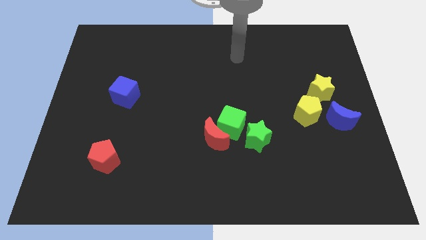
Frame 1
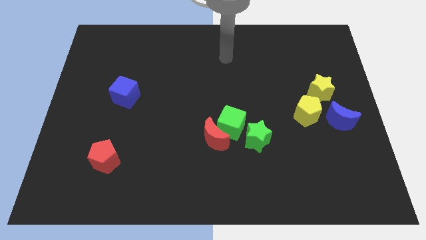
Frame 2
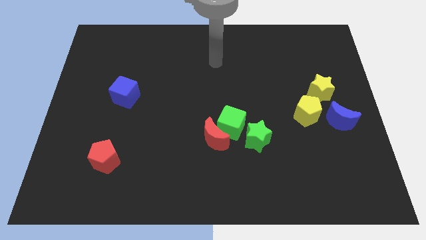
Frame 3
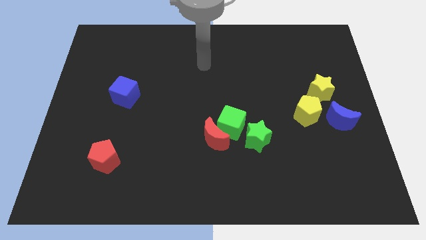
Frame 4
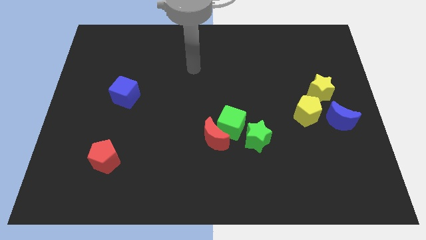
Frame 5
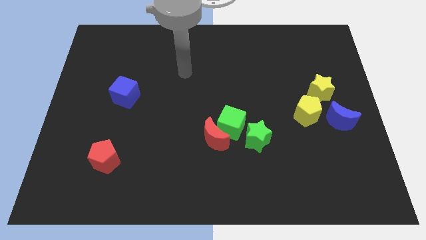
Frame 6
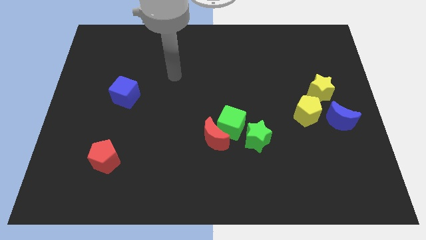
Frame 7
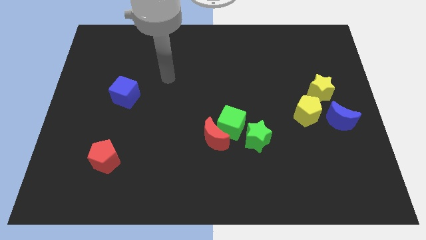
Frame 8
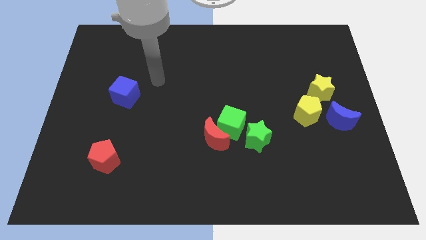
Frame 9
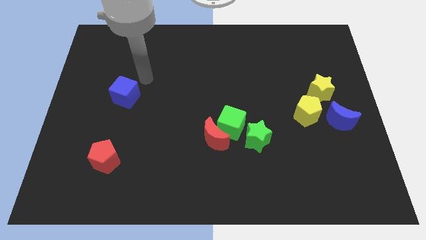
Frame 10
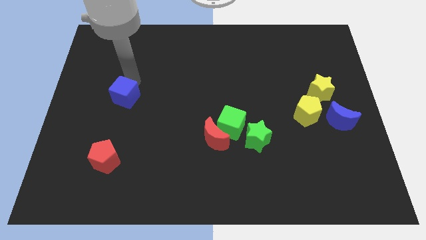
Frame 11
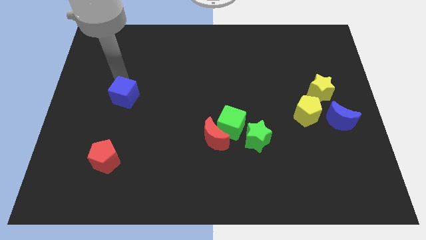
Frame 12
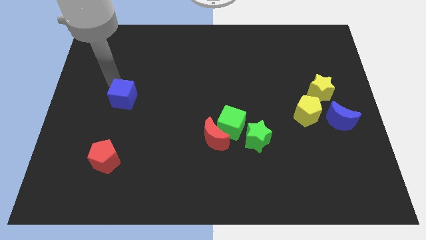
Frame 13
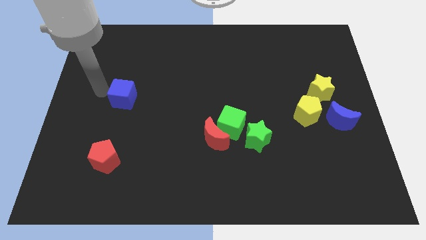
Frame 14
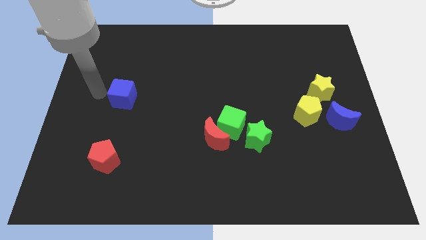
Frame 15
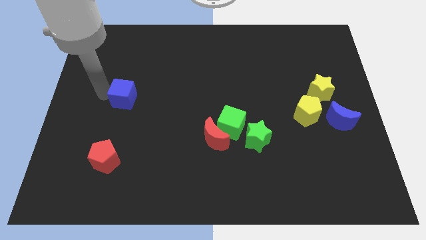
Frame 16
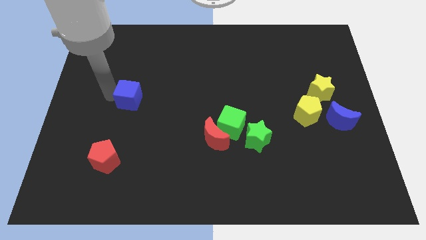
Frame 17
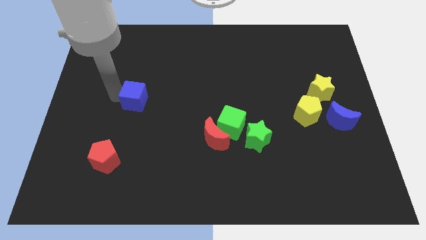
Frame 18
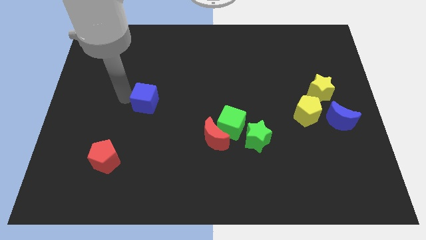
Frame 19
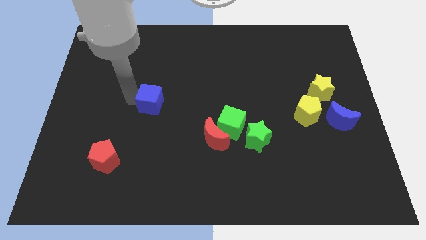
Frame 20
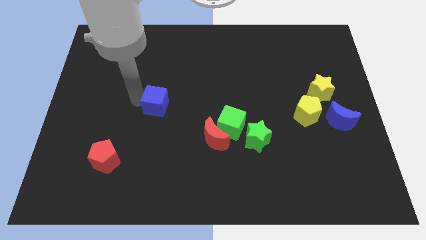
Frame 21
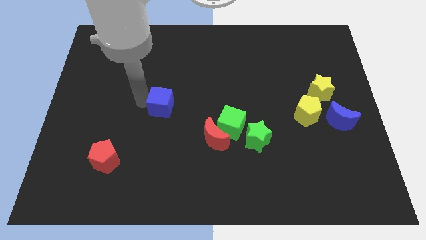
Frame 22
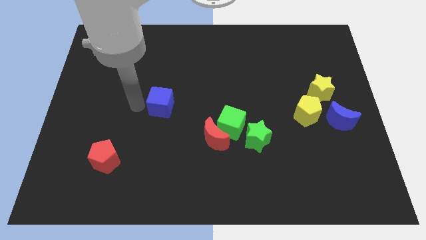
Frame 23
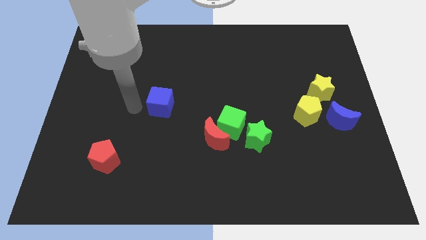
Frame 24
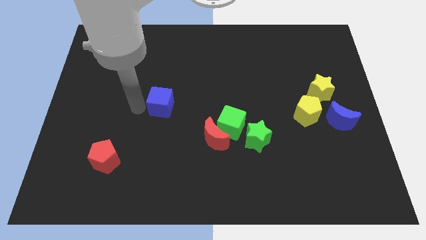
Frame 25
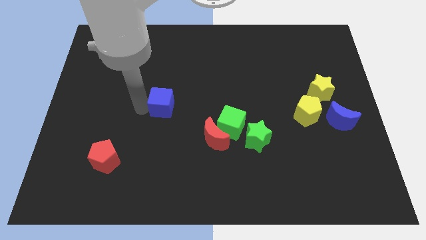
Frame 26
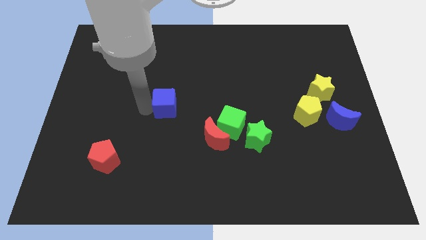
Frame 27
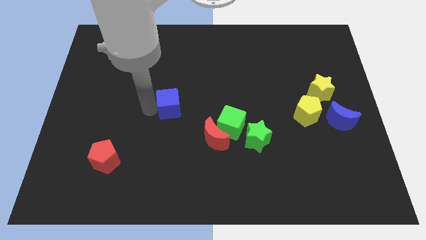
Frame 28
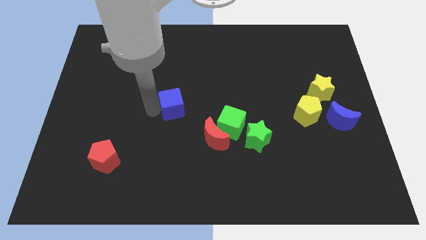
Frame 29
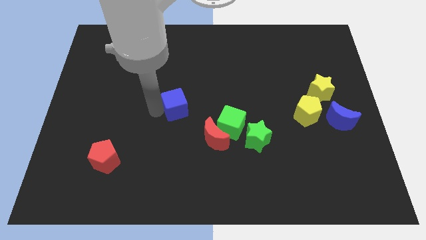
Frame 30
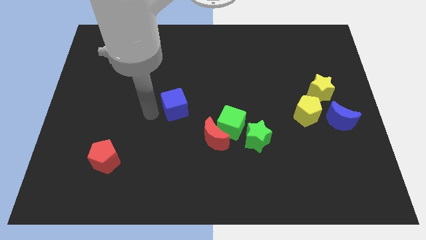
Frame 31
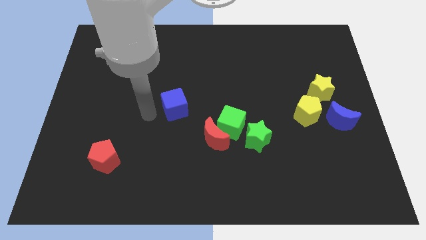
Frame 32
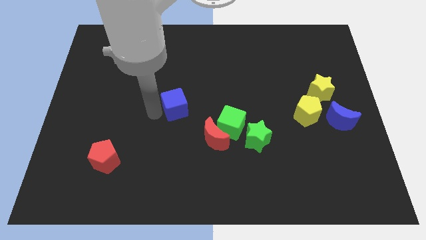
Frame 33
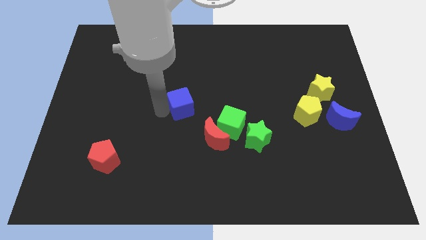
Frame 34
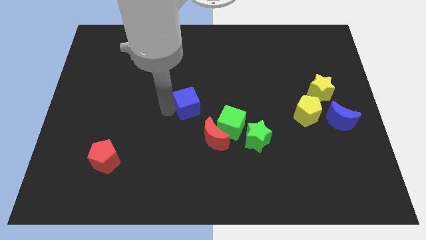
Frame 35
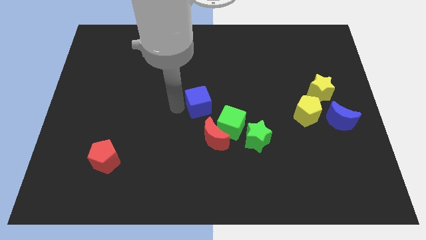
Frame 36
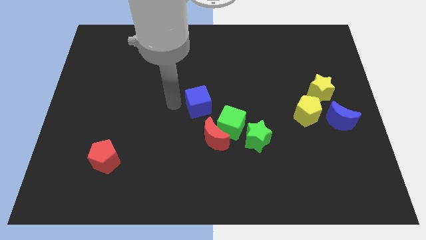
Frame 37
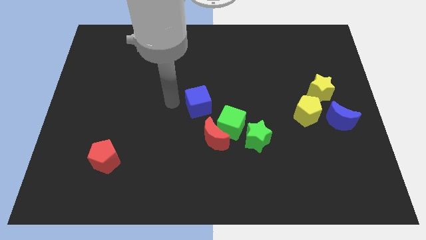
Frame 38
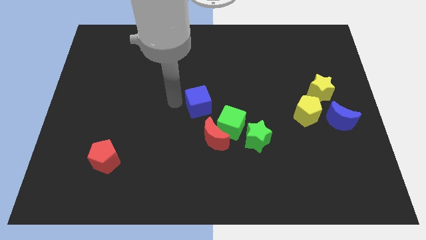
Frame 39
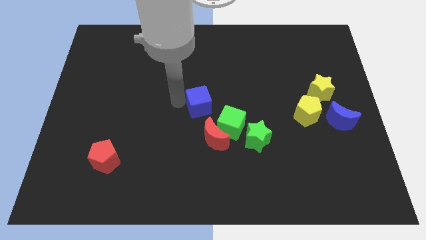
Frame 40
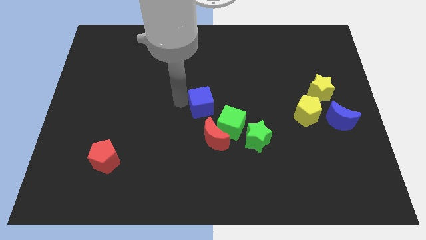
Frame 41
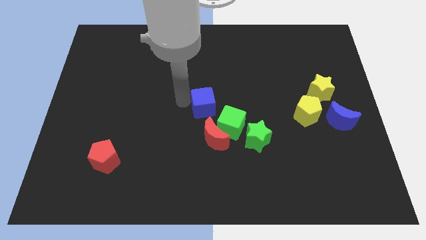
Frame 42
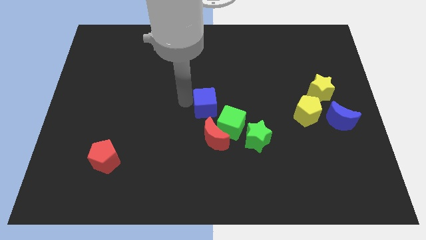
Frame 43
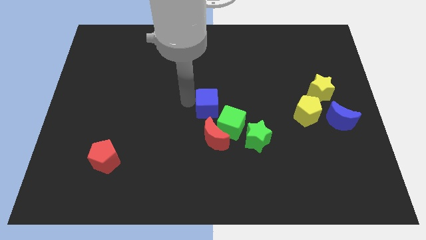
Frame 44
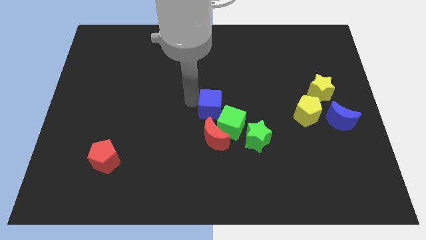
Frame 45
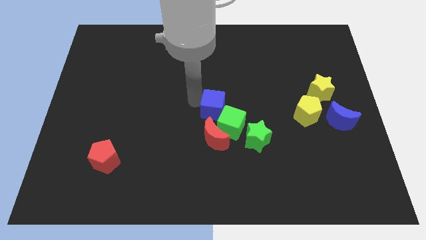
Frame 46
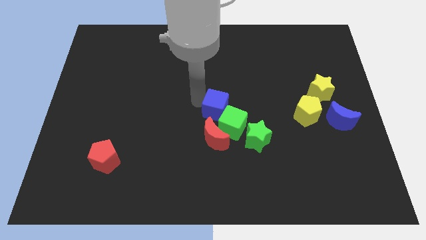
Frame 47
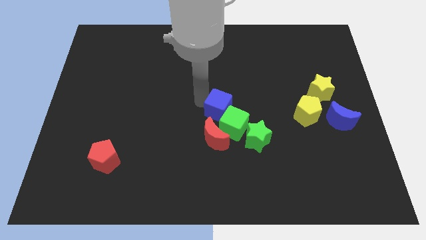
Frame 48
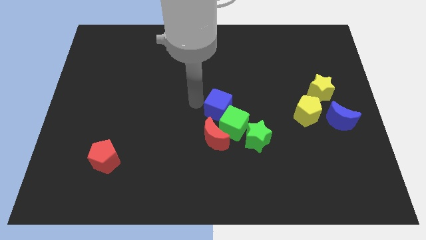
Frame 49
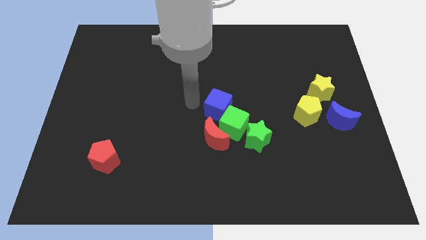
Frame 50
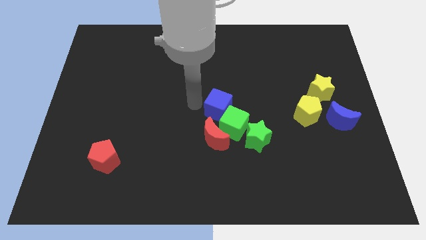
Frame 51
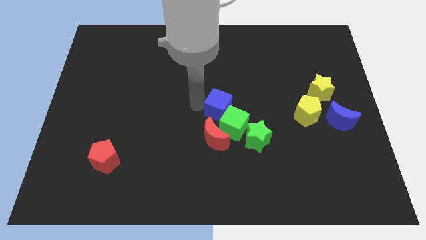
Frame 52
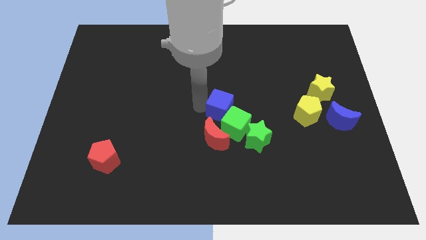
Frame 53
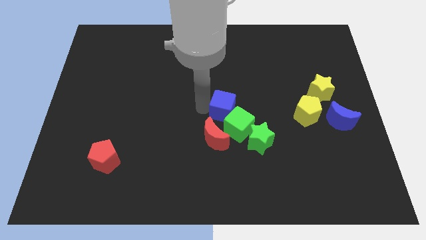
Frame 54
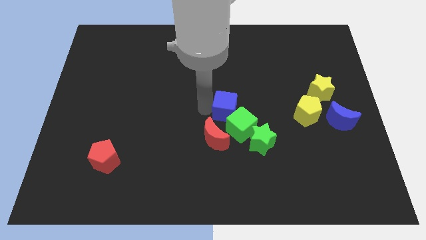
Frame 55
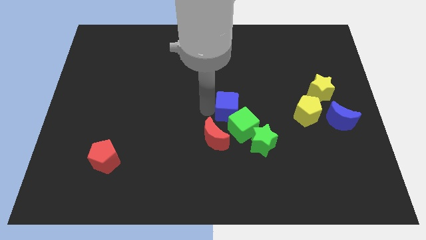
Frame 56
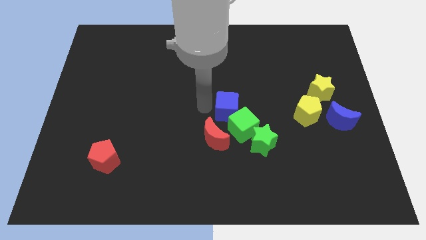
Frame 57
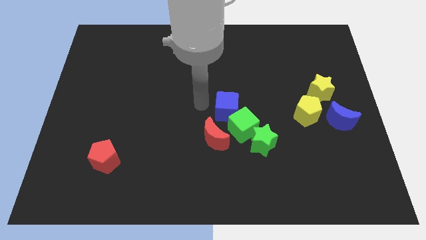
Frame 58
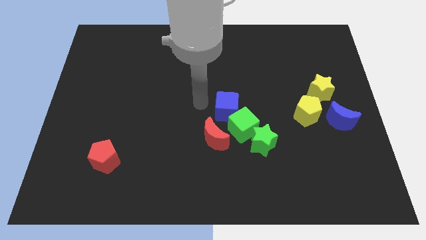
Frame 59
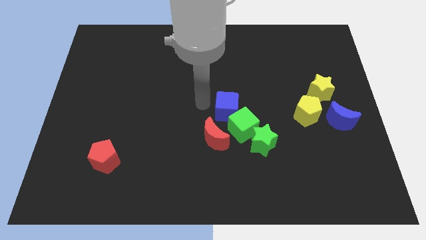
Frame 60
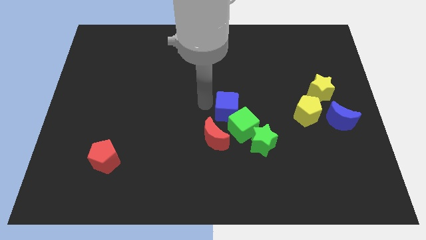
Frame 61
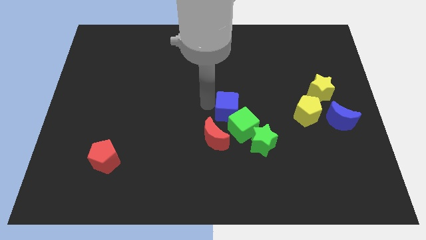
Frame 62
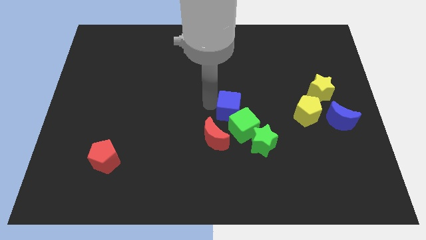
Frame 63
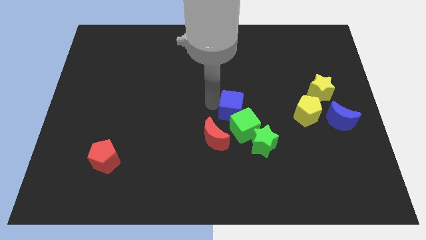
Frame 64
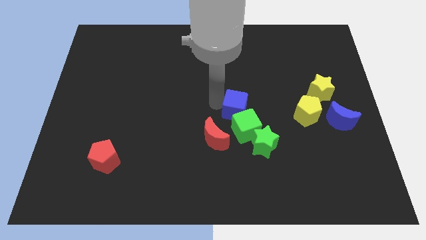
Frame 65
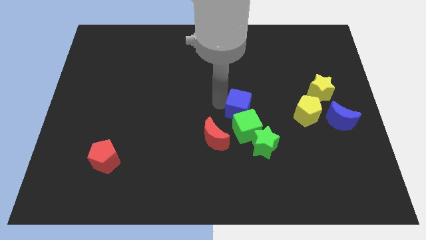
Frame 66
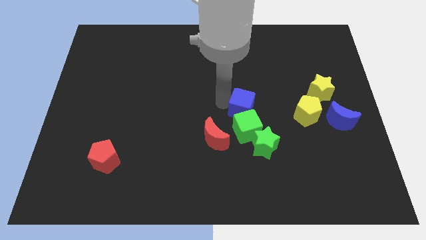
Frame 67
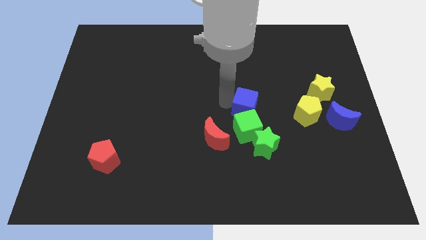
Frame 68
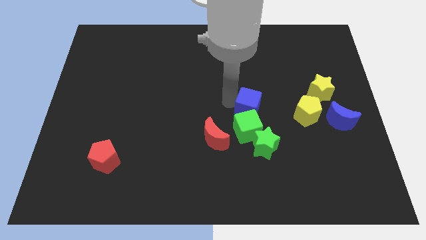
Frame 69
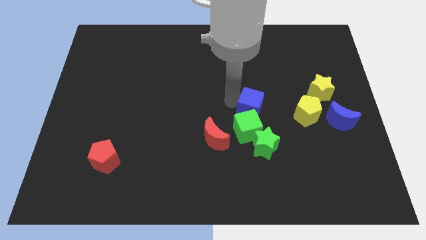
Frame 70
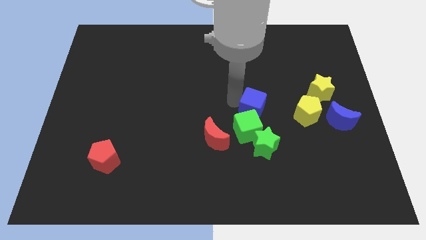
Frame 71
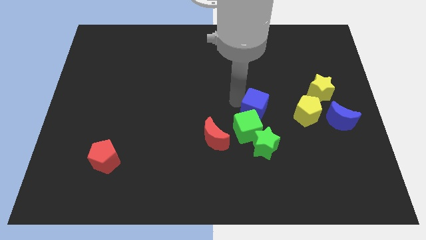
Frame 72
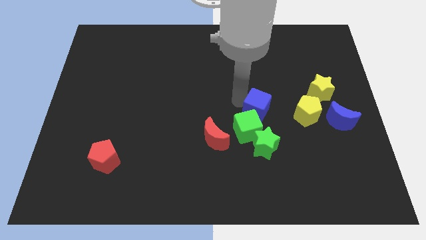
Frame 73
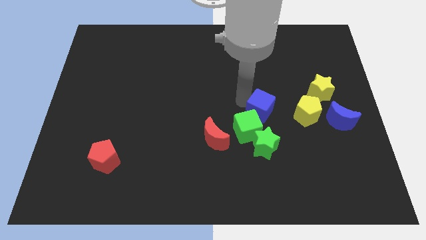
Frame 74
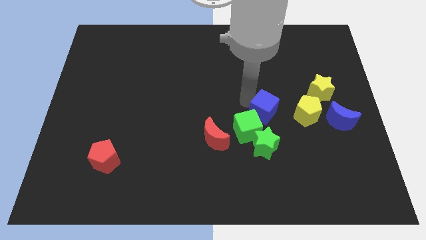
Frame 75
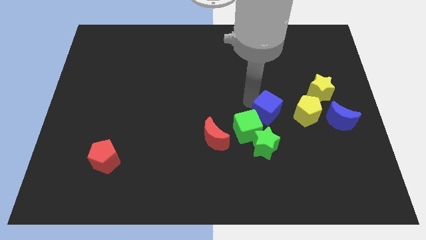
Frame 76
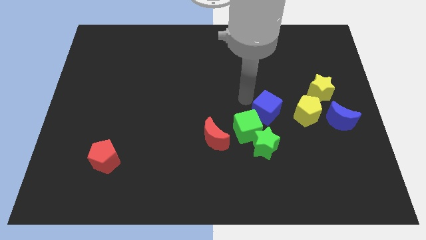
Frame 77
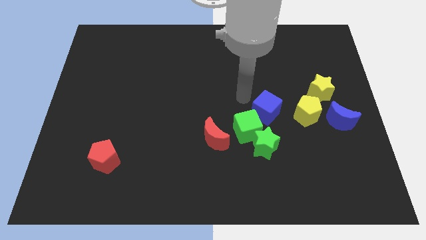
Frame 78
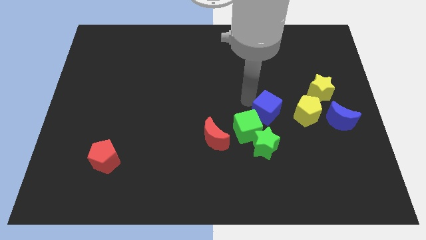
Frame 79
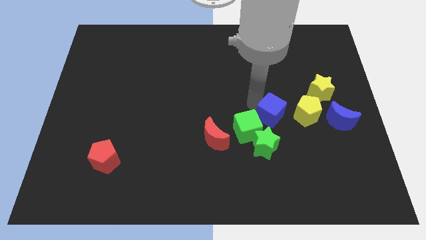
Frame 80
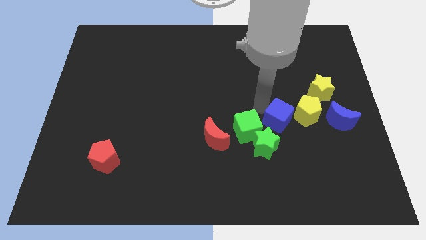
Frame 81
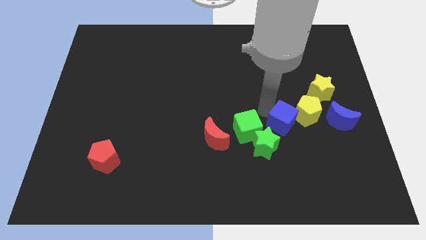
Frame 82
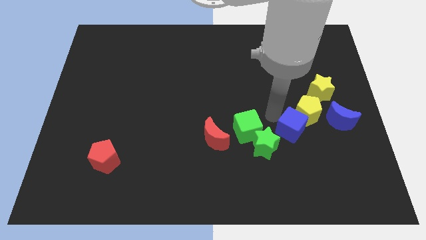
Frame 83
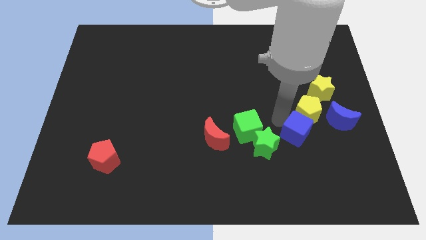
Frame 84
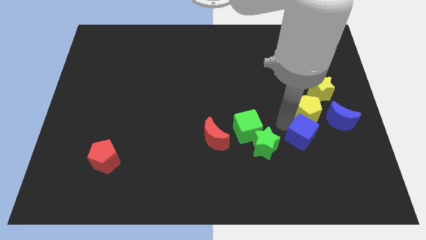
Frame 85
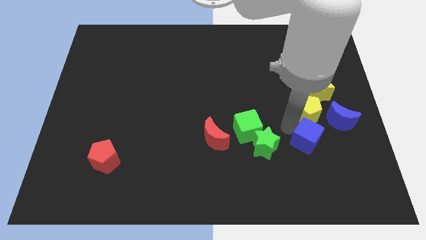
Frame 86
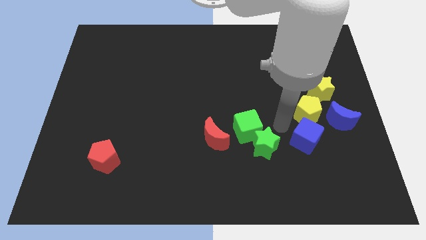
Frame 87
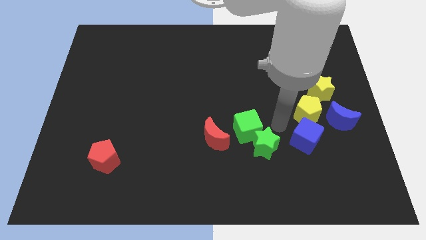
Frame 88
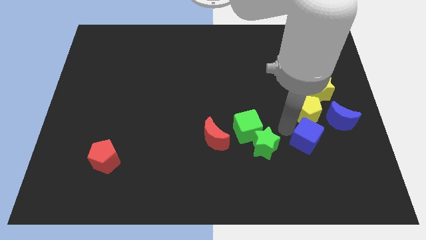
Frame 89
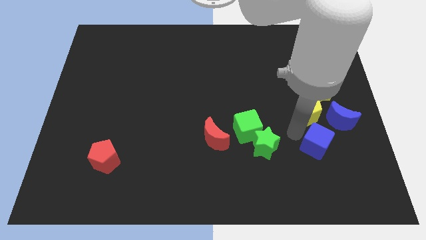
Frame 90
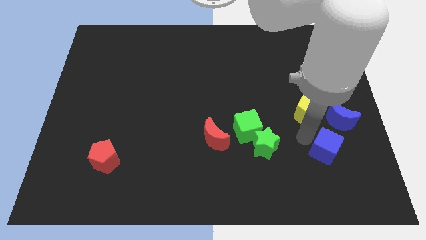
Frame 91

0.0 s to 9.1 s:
put the blue cube below the blue moon
